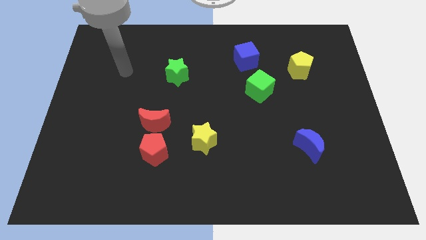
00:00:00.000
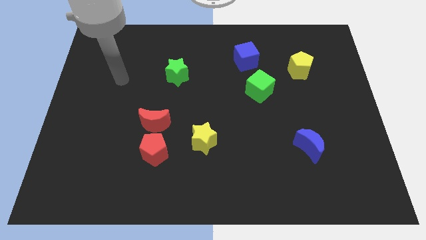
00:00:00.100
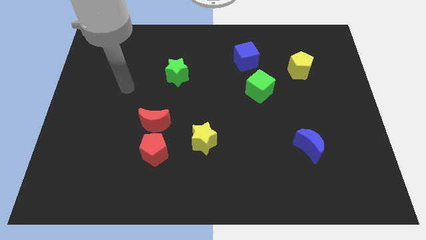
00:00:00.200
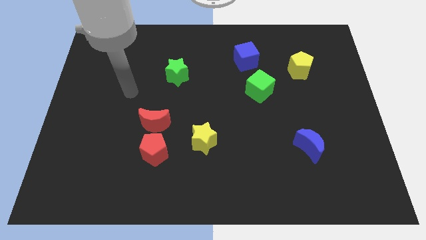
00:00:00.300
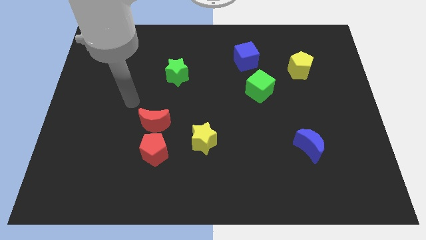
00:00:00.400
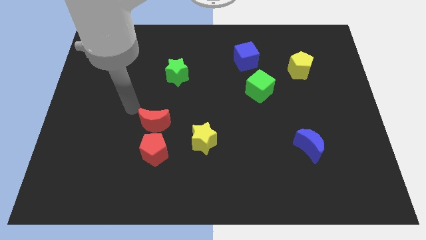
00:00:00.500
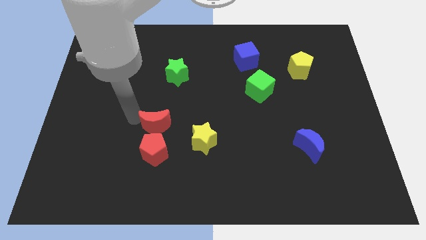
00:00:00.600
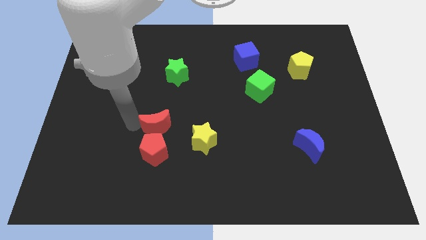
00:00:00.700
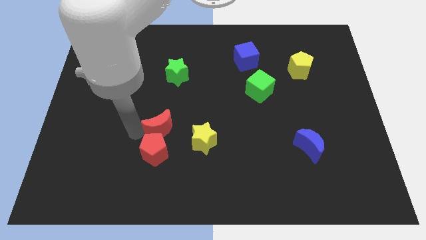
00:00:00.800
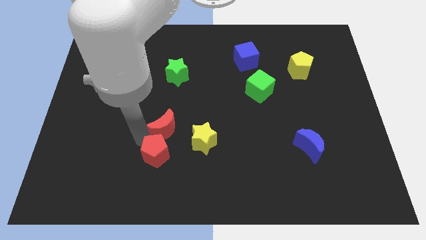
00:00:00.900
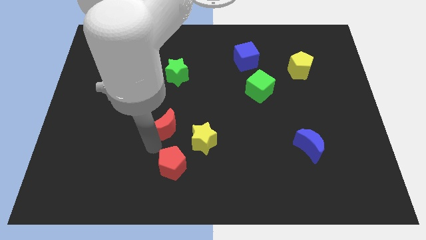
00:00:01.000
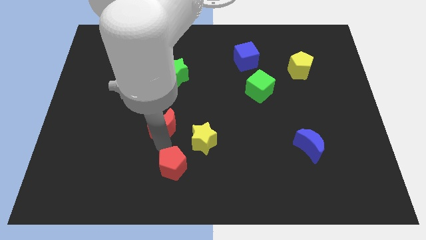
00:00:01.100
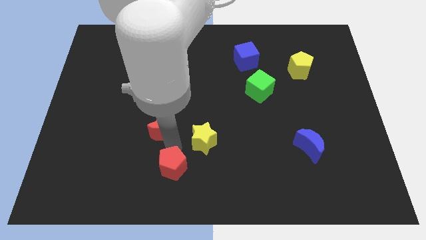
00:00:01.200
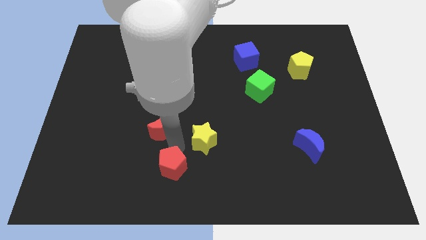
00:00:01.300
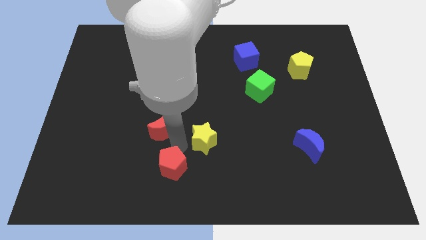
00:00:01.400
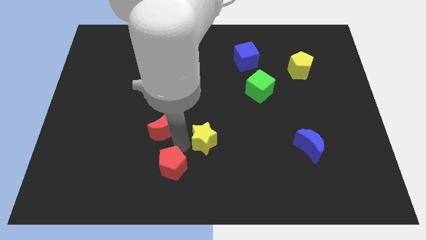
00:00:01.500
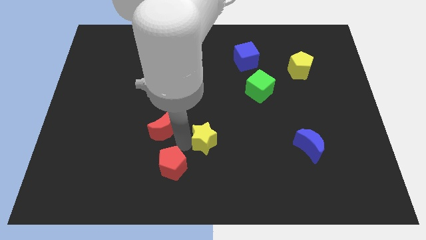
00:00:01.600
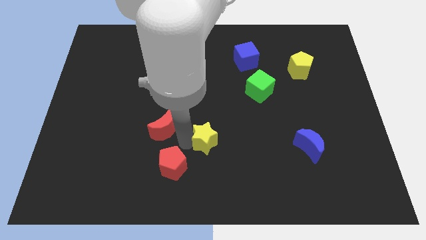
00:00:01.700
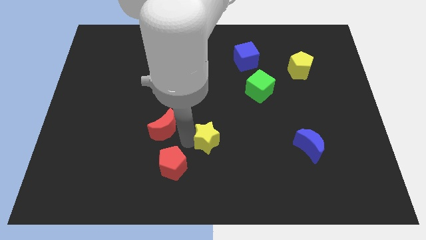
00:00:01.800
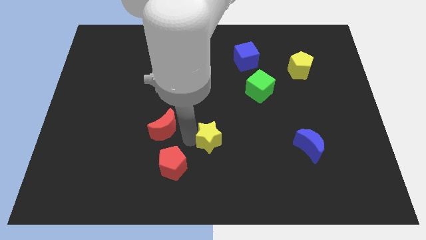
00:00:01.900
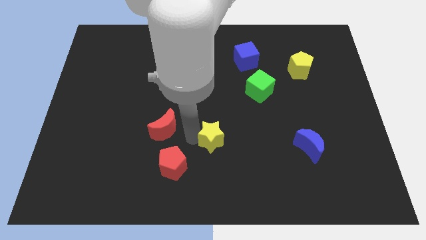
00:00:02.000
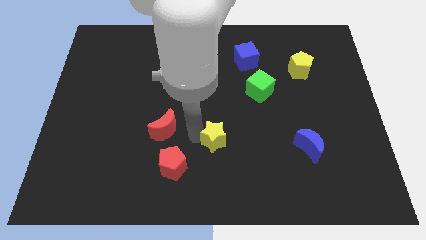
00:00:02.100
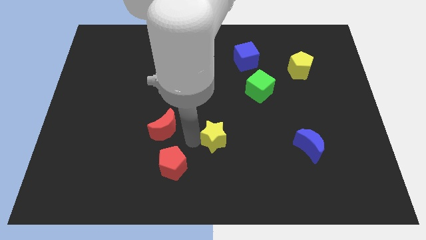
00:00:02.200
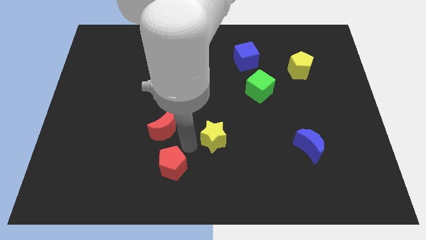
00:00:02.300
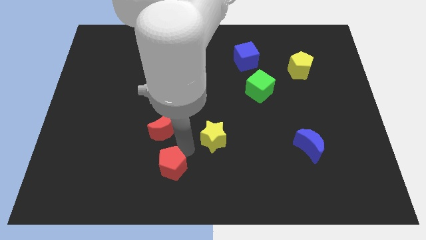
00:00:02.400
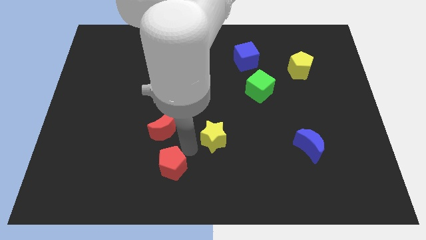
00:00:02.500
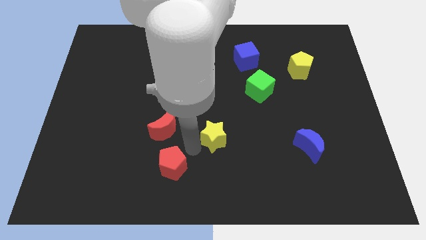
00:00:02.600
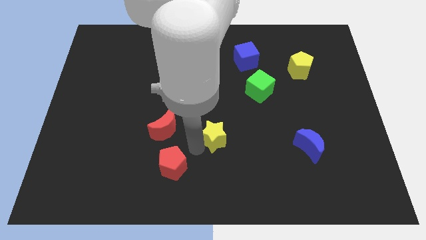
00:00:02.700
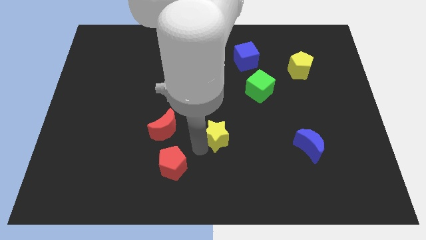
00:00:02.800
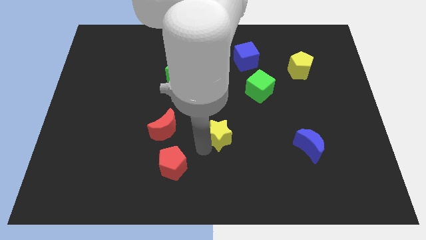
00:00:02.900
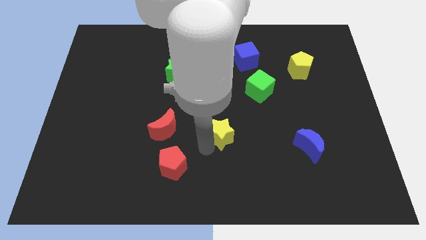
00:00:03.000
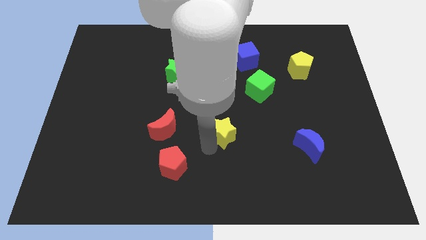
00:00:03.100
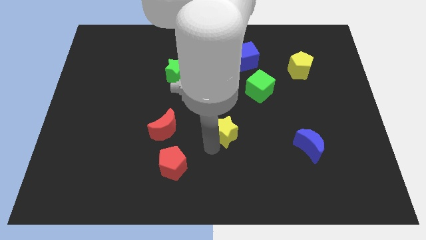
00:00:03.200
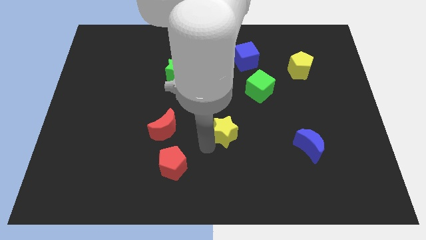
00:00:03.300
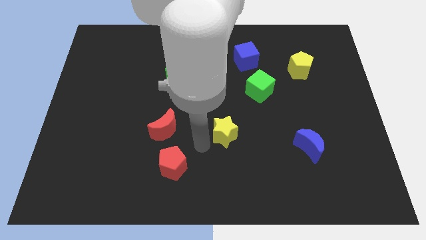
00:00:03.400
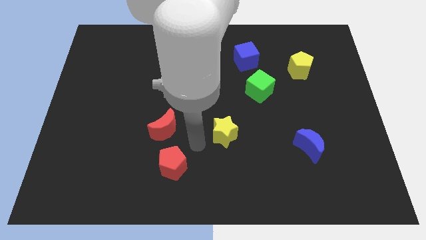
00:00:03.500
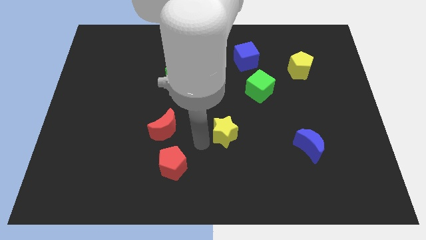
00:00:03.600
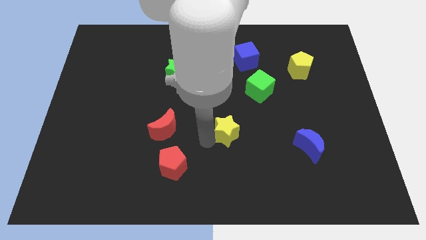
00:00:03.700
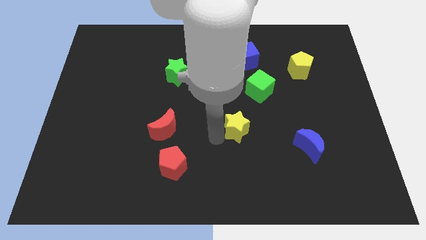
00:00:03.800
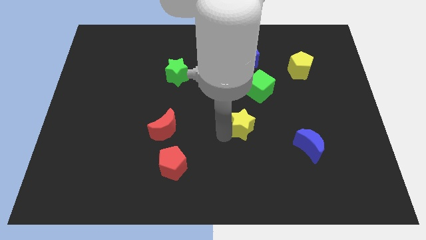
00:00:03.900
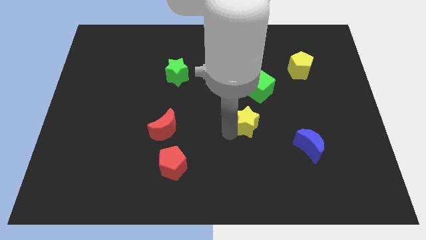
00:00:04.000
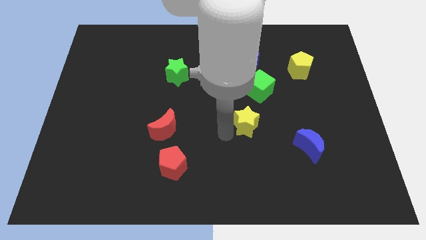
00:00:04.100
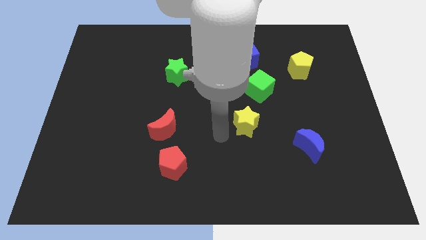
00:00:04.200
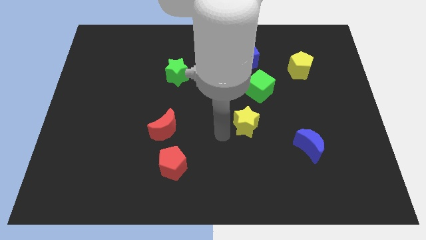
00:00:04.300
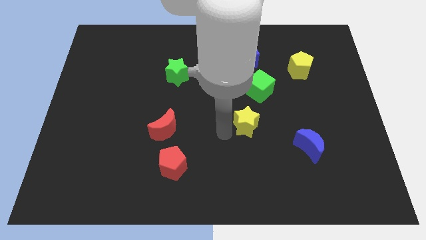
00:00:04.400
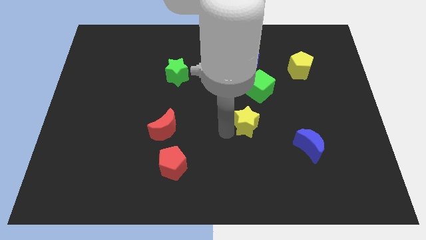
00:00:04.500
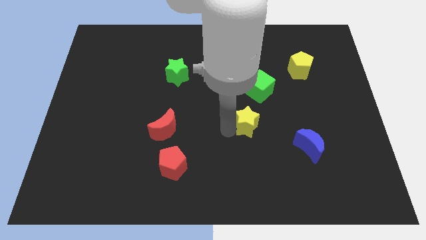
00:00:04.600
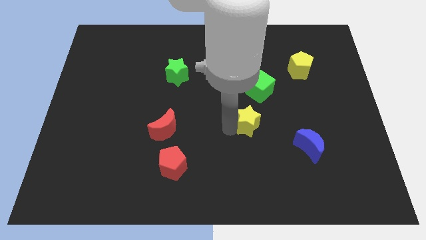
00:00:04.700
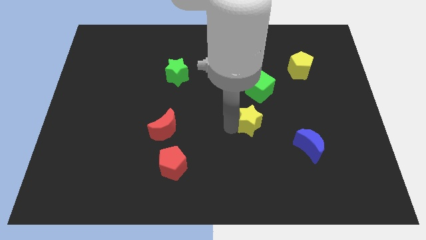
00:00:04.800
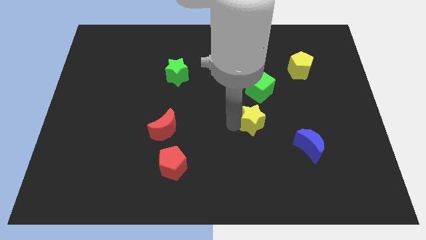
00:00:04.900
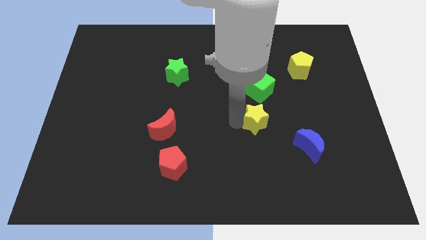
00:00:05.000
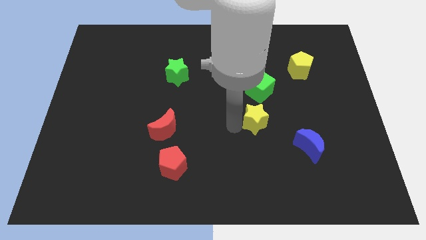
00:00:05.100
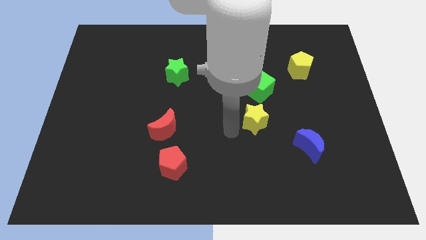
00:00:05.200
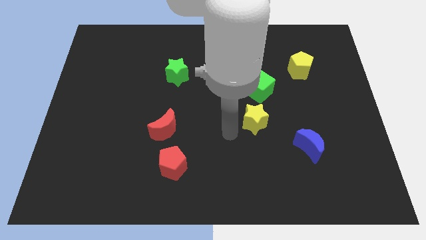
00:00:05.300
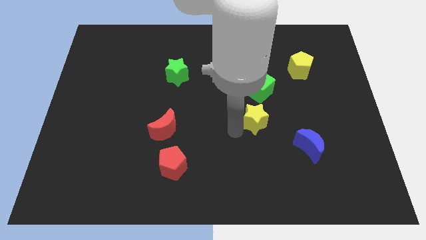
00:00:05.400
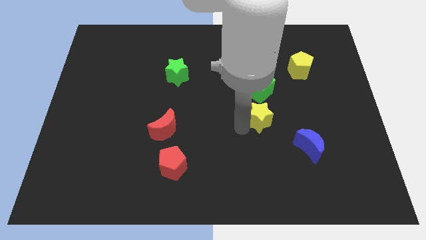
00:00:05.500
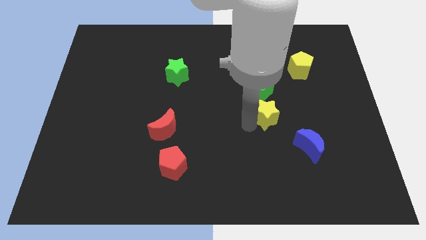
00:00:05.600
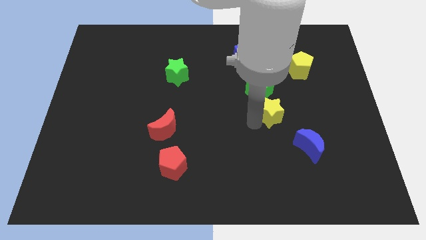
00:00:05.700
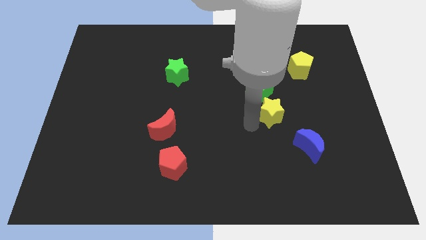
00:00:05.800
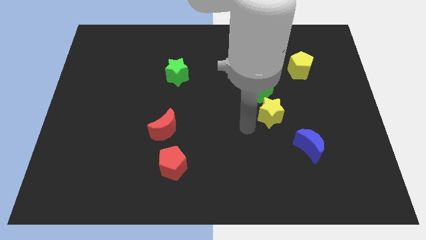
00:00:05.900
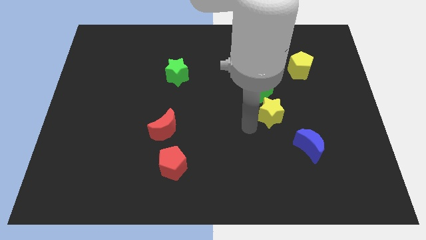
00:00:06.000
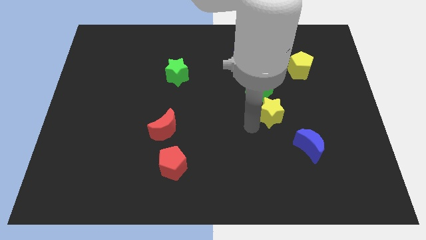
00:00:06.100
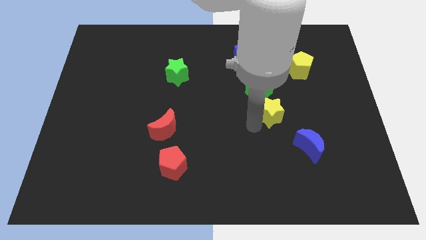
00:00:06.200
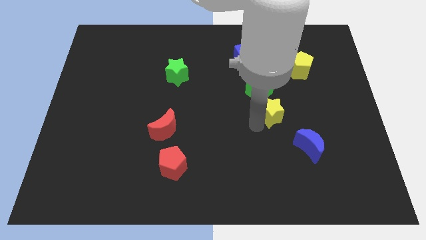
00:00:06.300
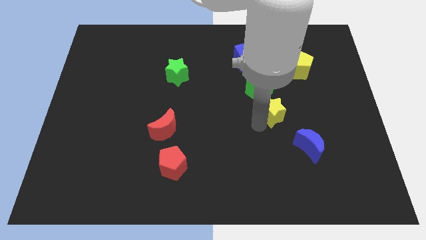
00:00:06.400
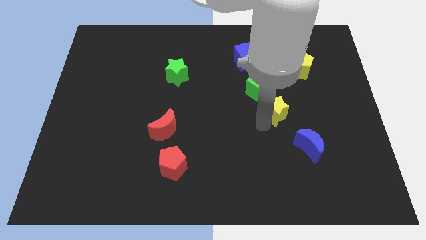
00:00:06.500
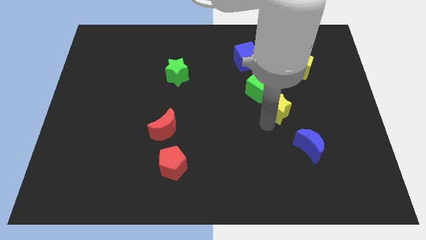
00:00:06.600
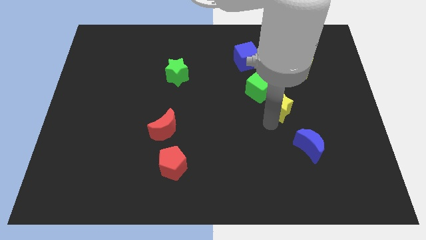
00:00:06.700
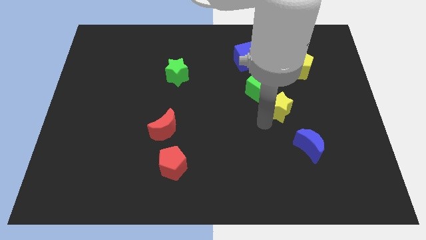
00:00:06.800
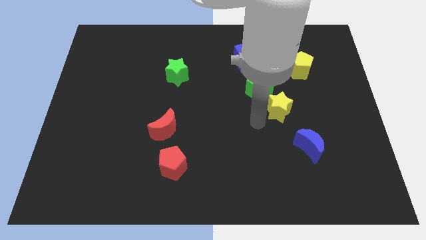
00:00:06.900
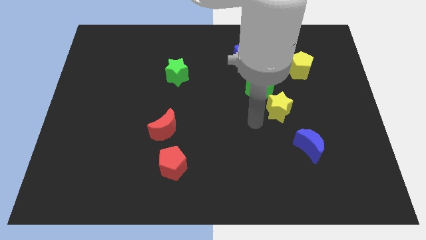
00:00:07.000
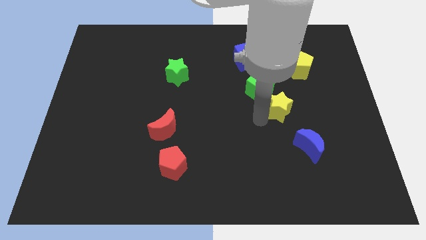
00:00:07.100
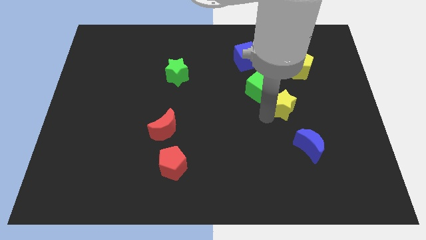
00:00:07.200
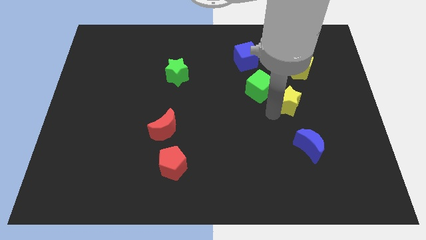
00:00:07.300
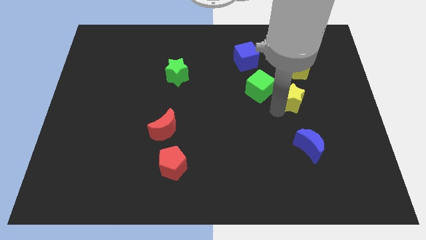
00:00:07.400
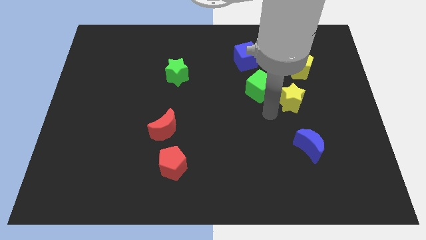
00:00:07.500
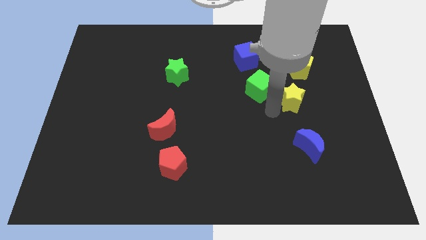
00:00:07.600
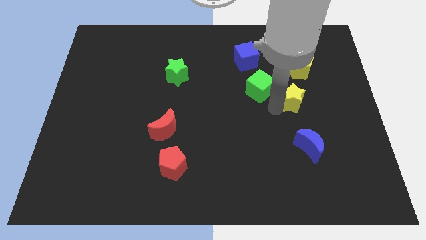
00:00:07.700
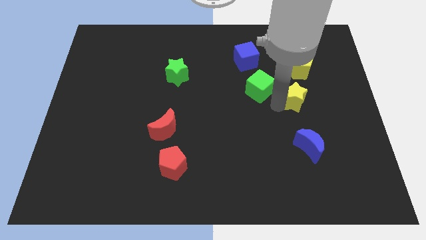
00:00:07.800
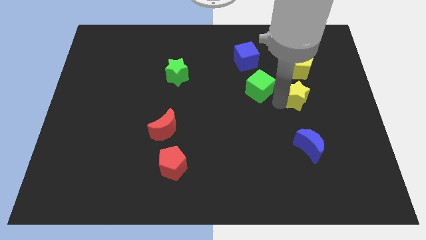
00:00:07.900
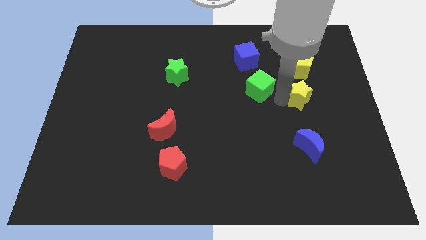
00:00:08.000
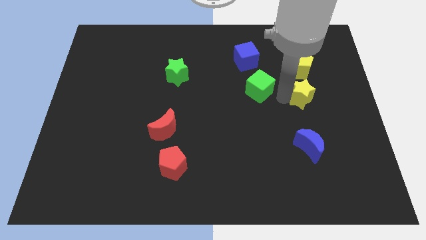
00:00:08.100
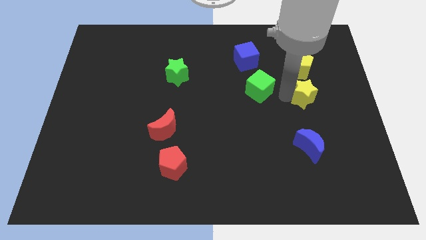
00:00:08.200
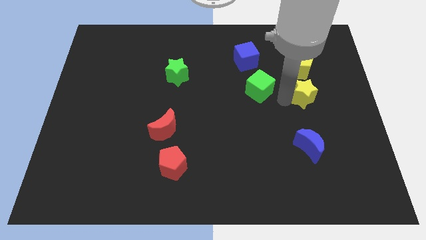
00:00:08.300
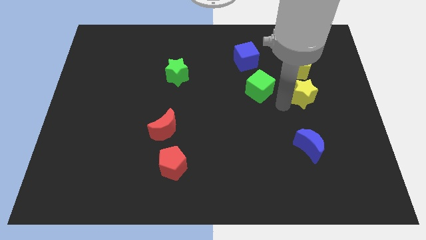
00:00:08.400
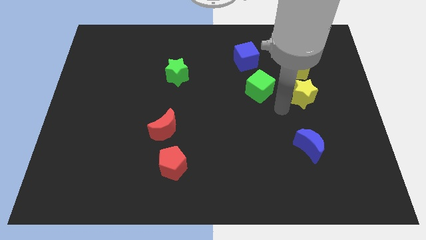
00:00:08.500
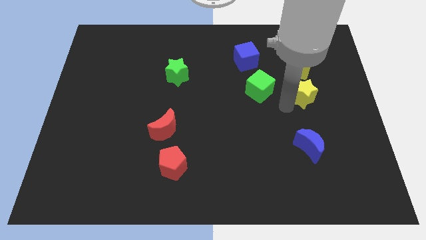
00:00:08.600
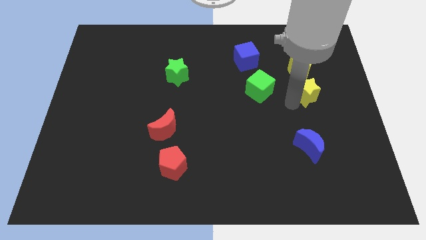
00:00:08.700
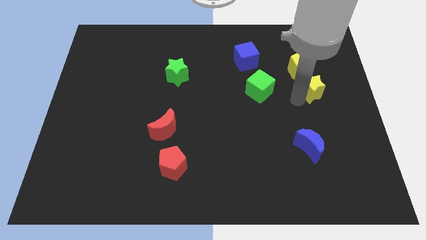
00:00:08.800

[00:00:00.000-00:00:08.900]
push the yellow star diagonally down and to the right of the yellow pentagon
